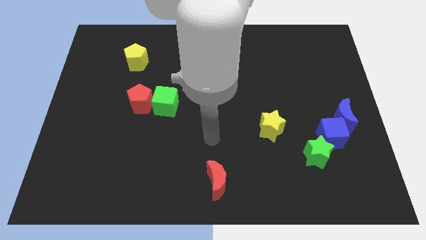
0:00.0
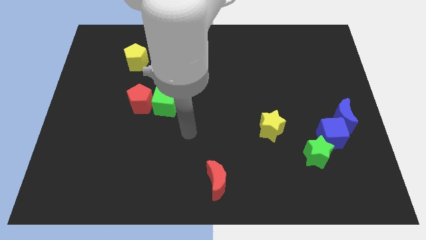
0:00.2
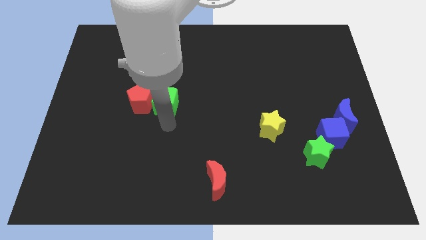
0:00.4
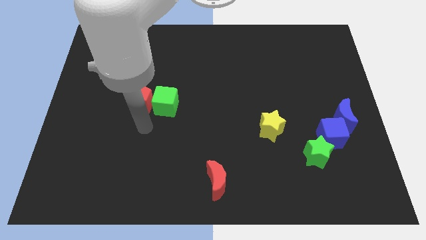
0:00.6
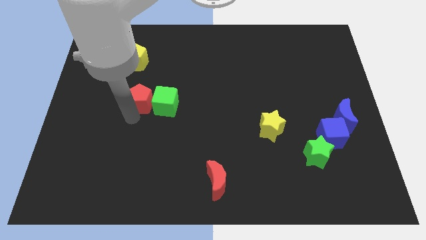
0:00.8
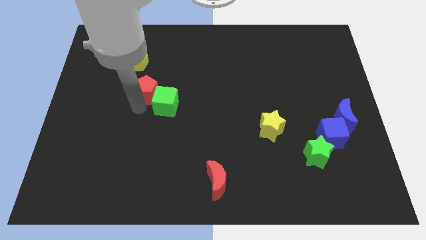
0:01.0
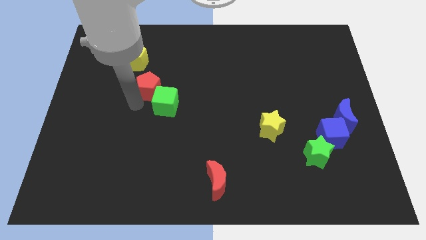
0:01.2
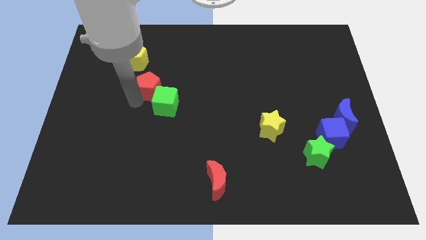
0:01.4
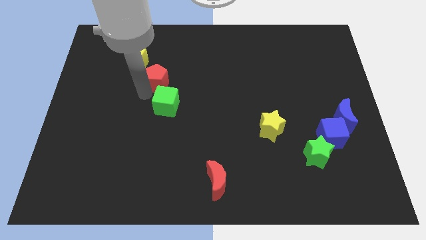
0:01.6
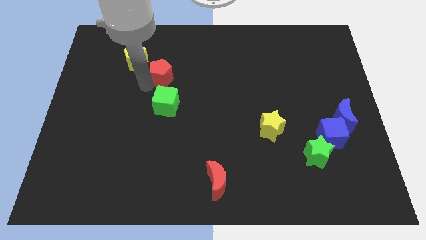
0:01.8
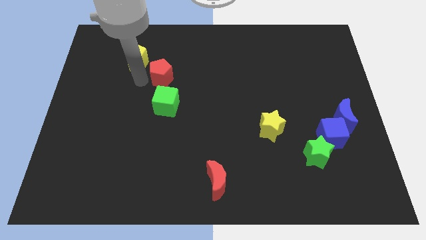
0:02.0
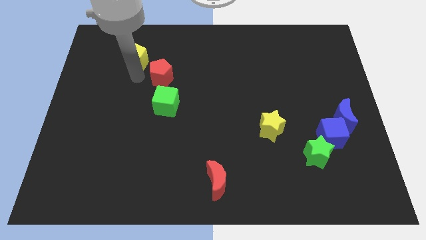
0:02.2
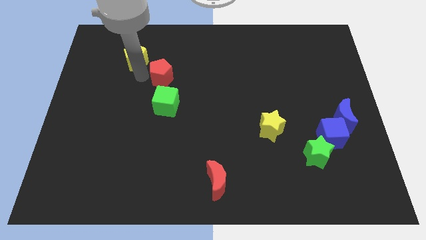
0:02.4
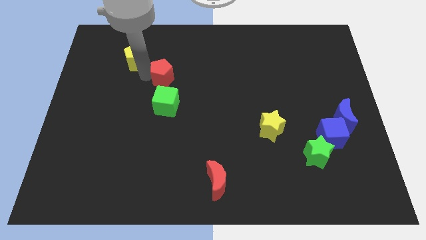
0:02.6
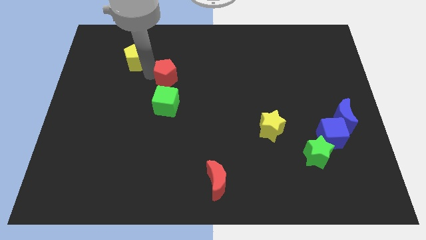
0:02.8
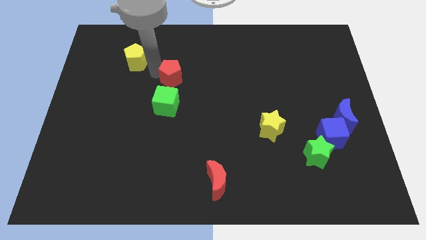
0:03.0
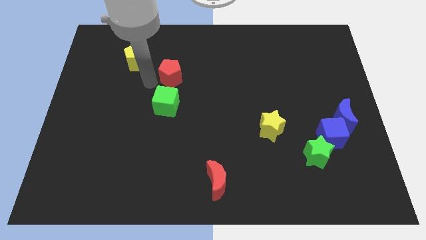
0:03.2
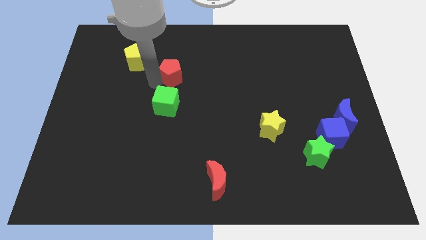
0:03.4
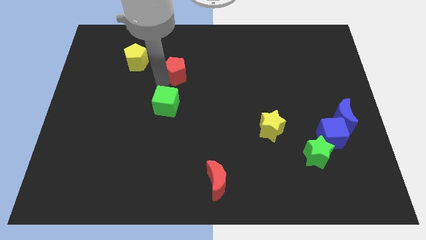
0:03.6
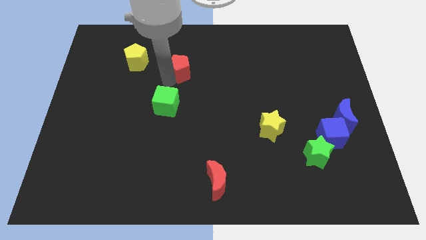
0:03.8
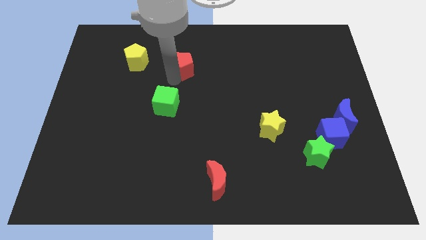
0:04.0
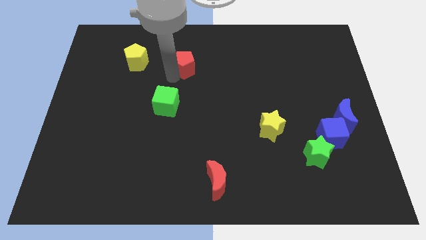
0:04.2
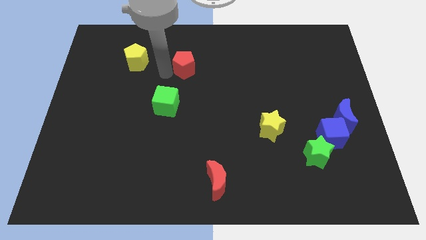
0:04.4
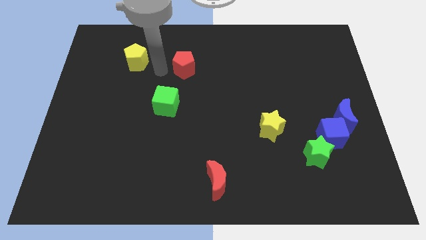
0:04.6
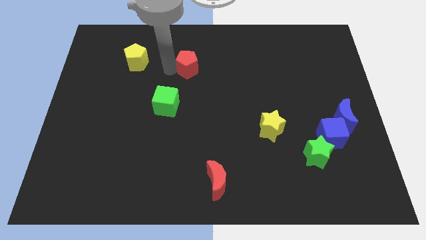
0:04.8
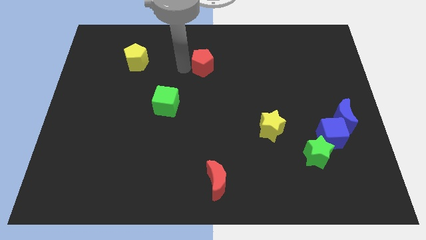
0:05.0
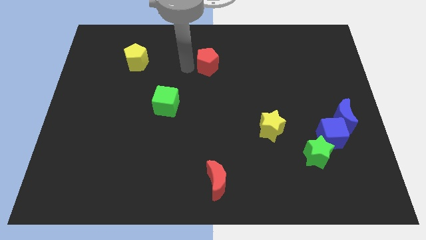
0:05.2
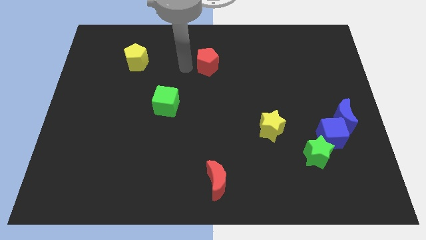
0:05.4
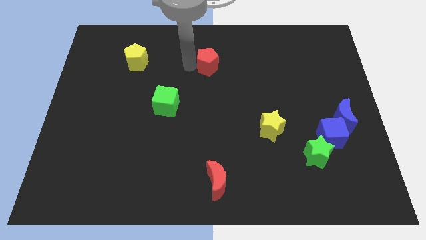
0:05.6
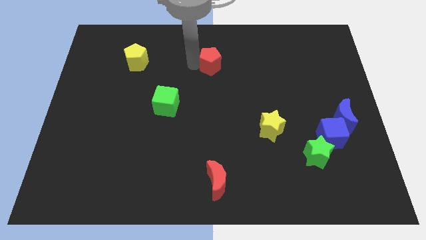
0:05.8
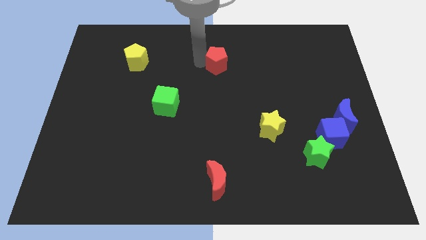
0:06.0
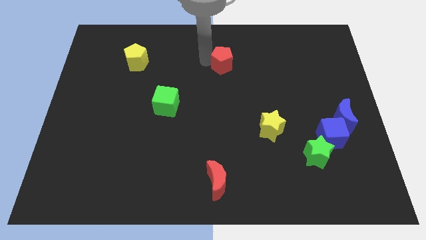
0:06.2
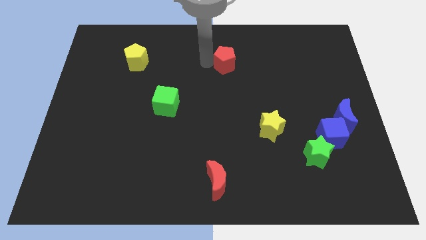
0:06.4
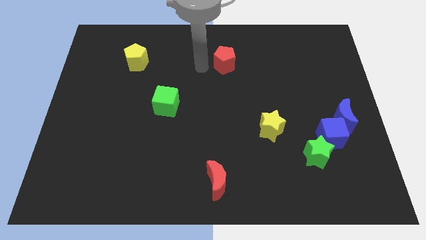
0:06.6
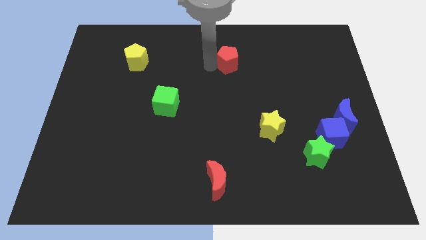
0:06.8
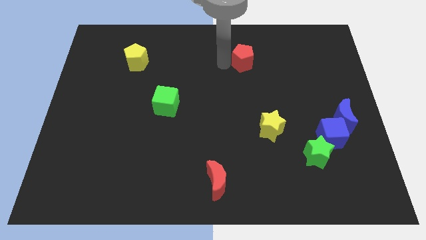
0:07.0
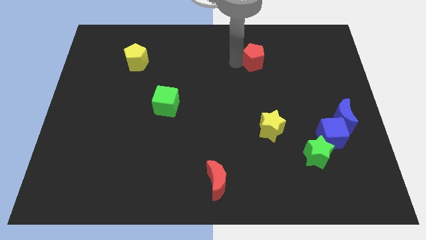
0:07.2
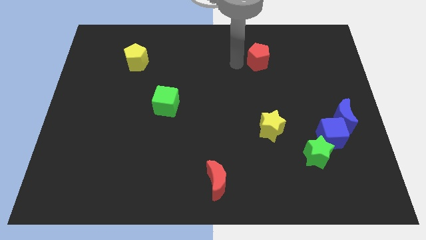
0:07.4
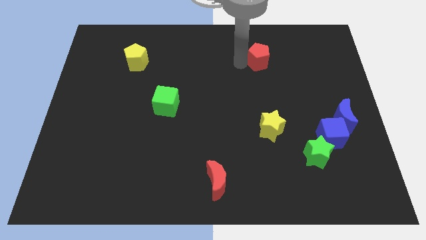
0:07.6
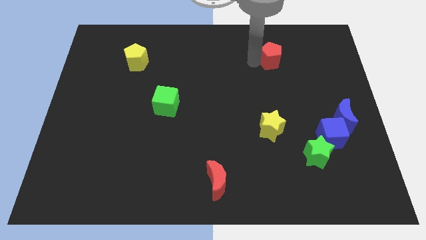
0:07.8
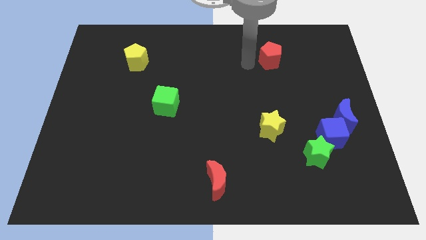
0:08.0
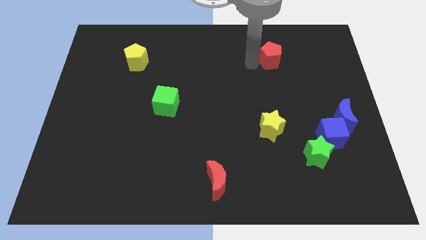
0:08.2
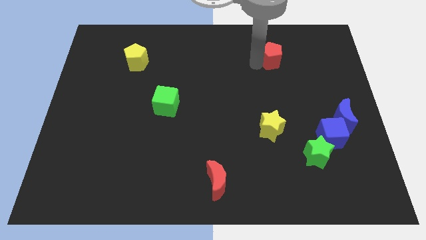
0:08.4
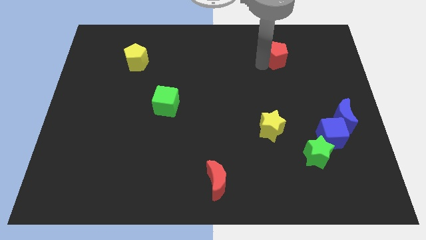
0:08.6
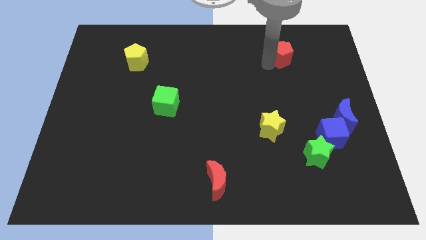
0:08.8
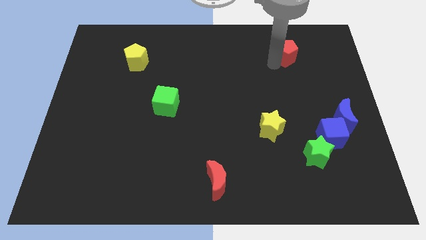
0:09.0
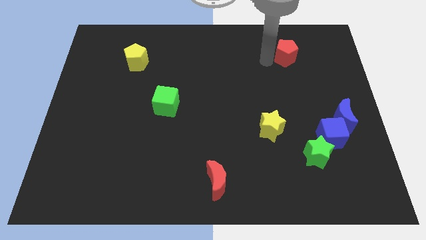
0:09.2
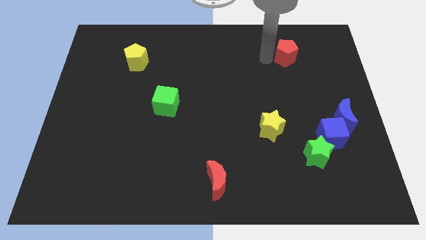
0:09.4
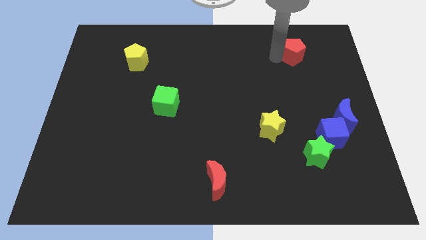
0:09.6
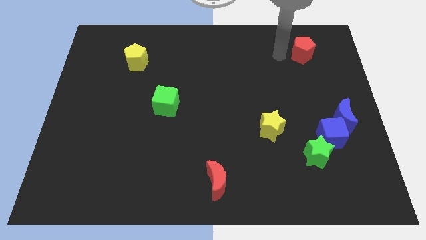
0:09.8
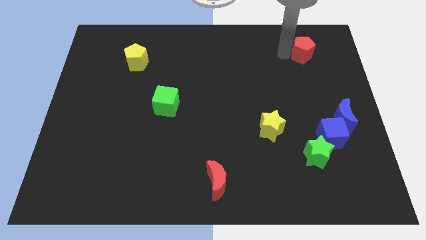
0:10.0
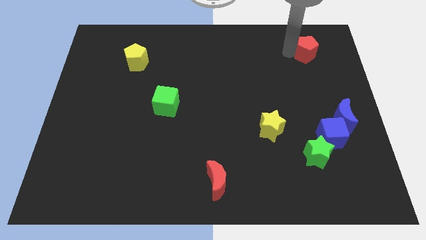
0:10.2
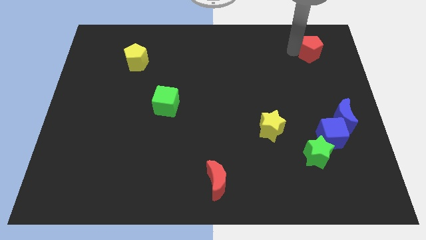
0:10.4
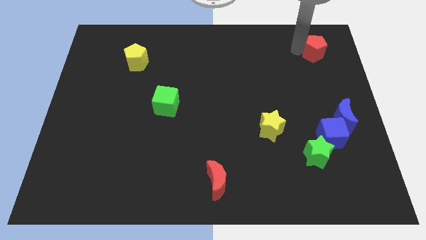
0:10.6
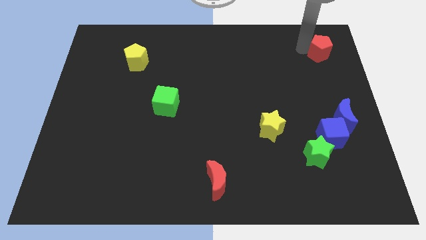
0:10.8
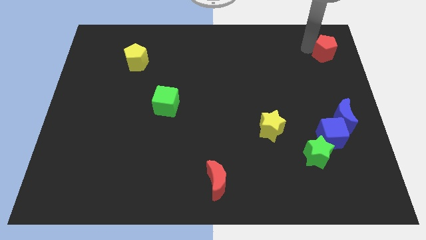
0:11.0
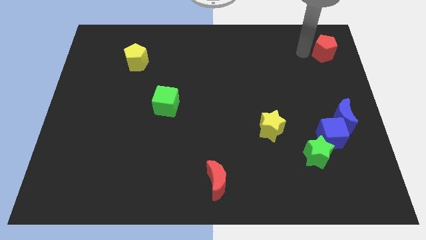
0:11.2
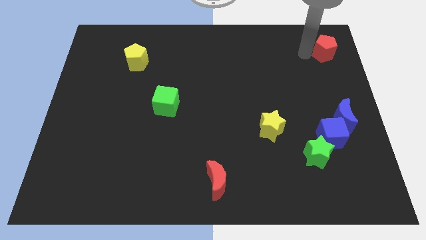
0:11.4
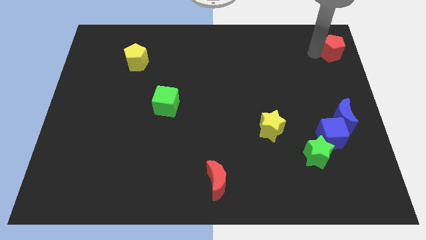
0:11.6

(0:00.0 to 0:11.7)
slide the red pentagon to the top right

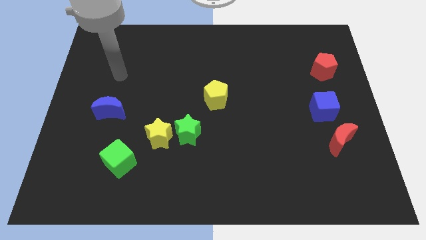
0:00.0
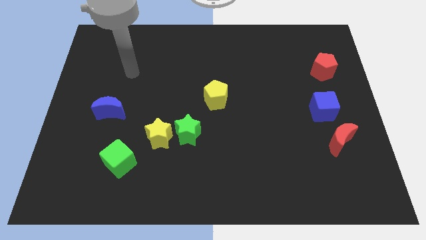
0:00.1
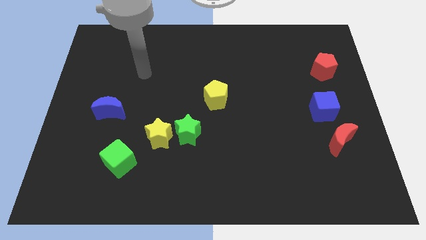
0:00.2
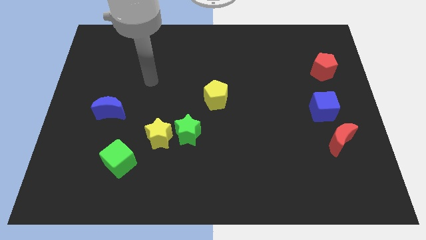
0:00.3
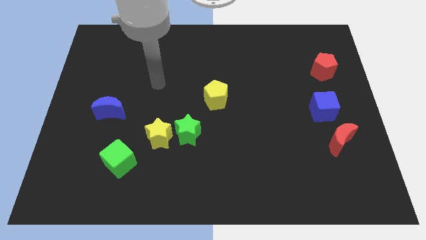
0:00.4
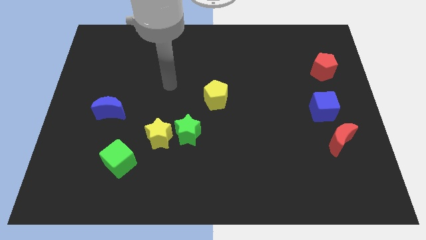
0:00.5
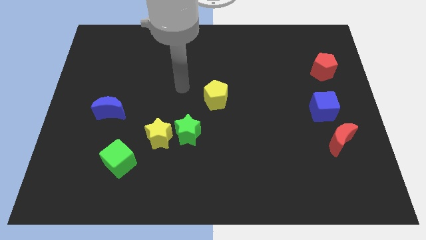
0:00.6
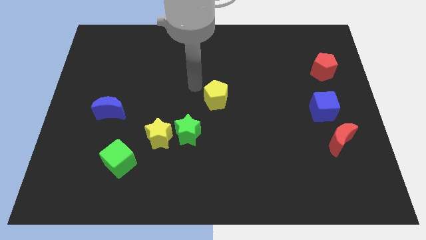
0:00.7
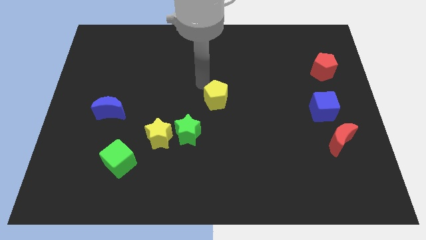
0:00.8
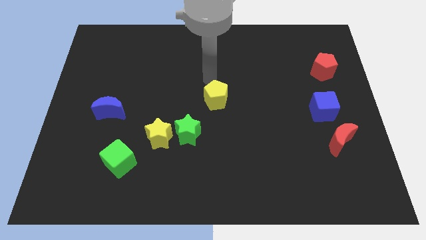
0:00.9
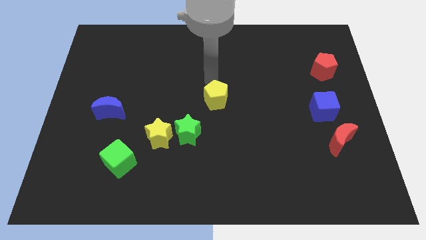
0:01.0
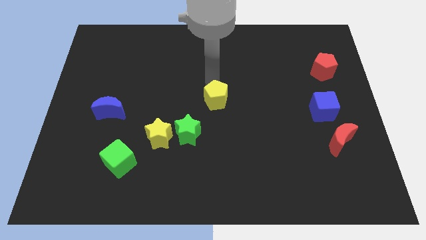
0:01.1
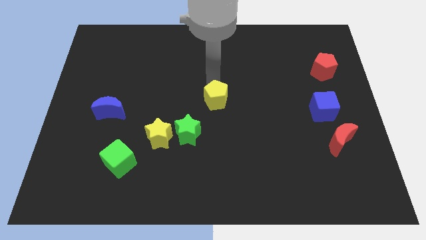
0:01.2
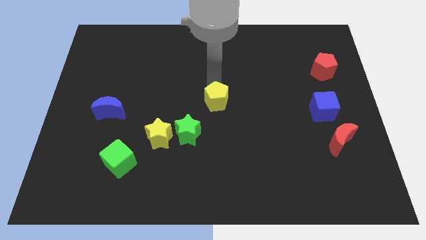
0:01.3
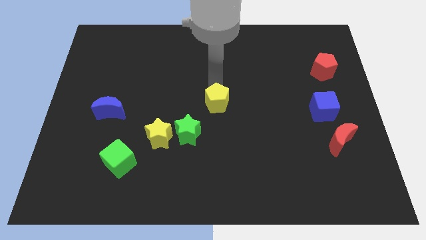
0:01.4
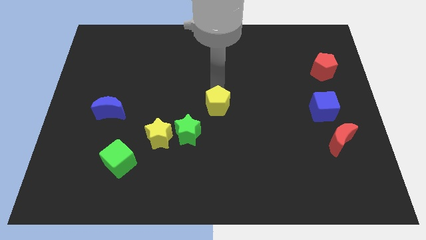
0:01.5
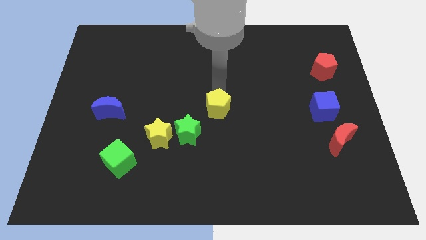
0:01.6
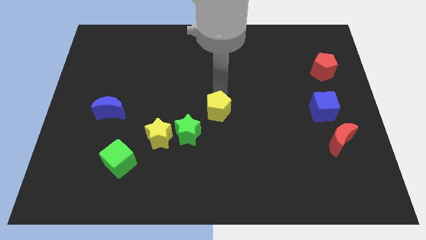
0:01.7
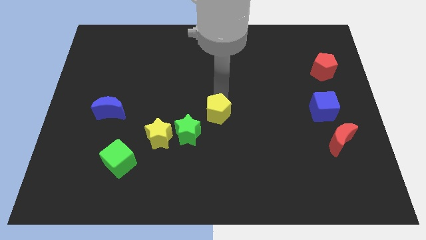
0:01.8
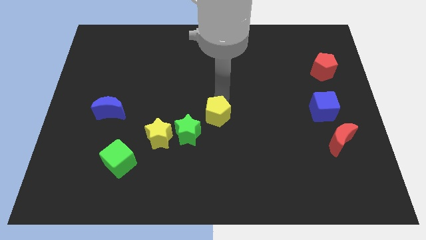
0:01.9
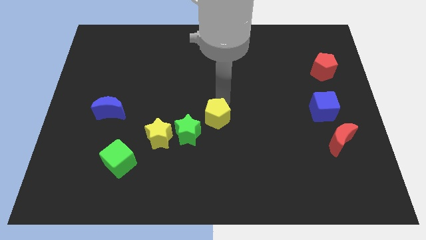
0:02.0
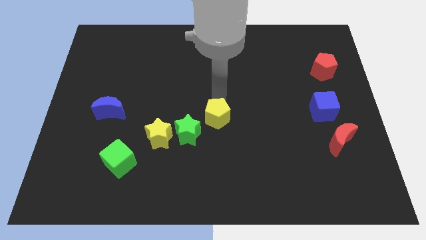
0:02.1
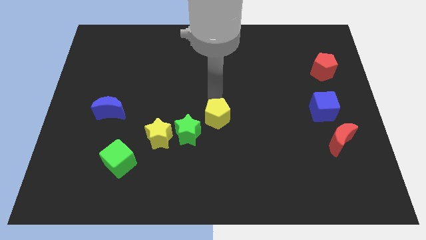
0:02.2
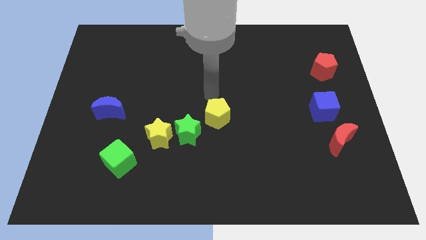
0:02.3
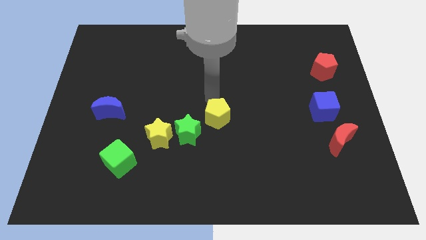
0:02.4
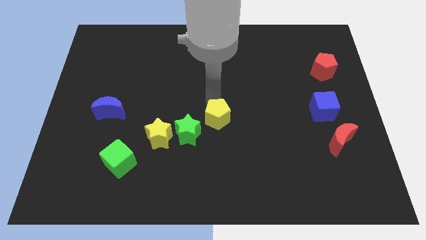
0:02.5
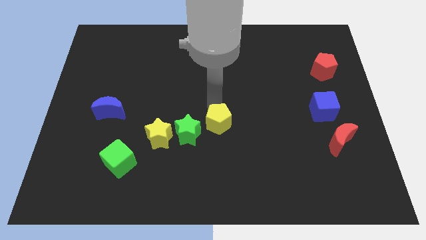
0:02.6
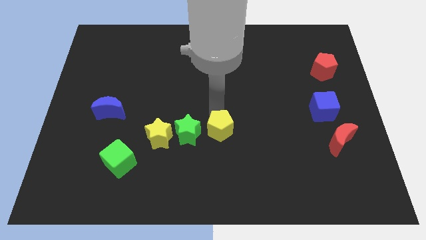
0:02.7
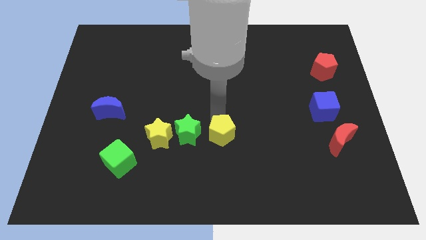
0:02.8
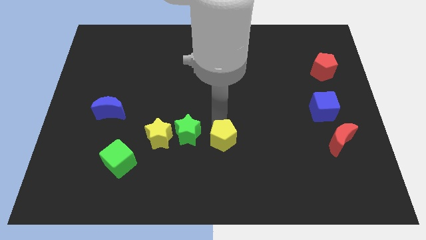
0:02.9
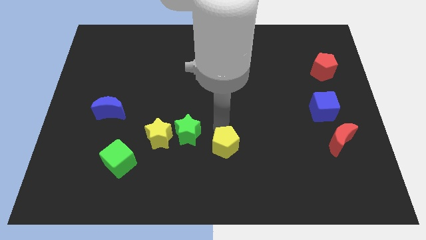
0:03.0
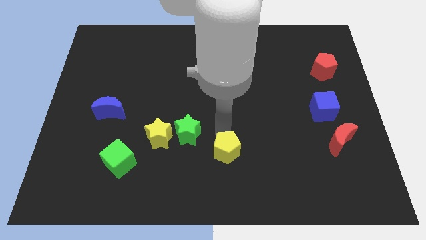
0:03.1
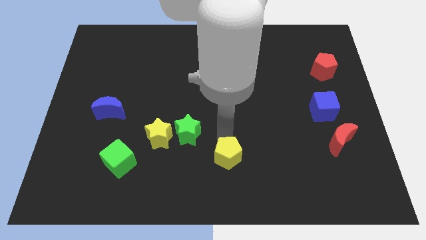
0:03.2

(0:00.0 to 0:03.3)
put the yellow pentagon to the bottom
